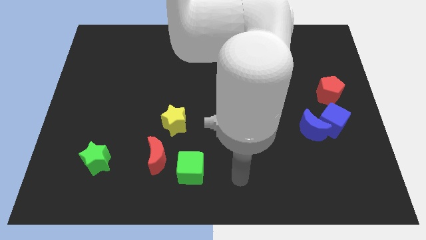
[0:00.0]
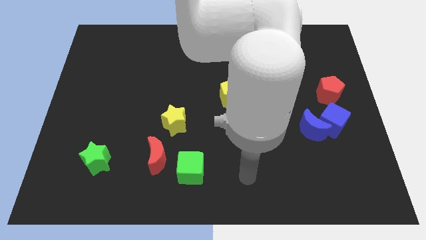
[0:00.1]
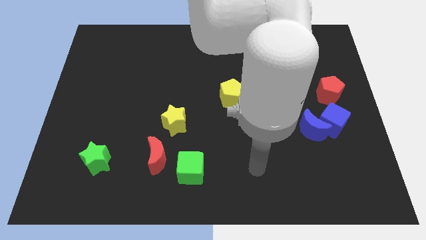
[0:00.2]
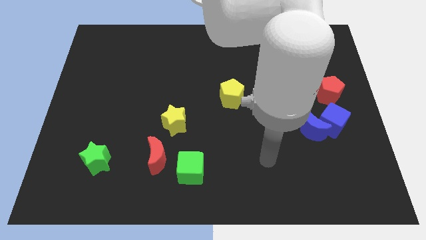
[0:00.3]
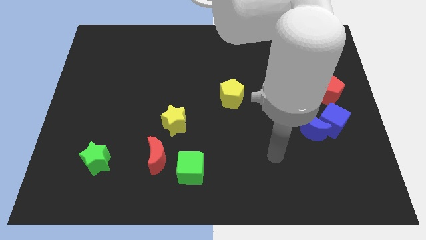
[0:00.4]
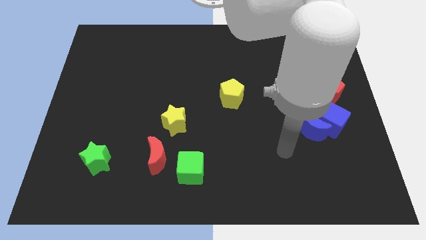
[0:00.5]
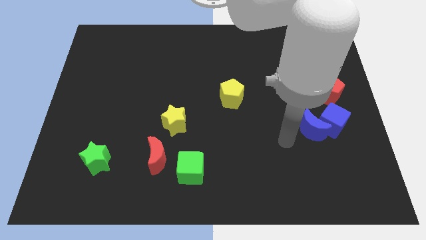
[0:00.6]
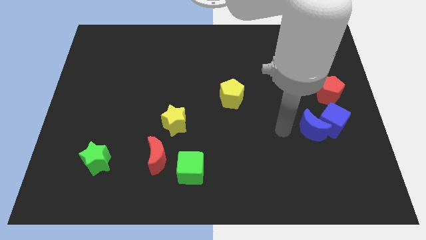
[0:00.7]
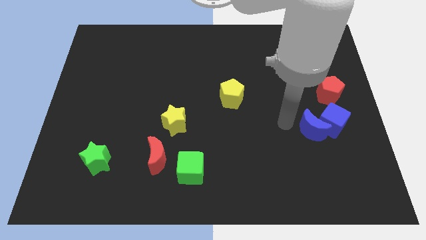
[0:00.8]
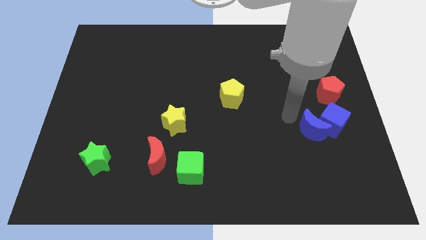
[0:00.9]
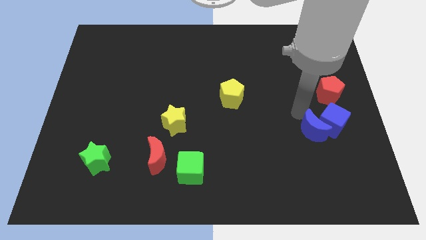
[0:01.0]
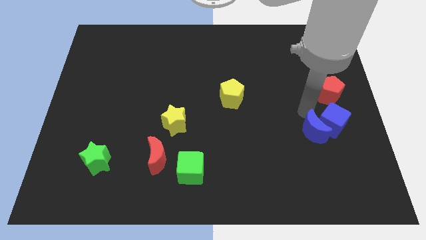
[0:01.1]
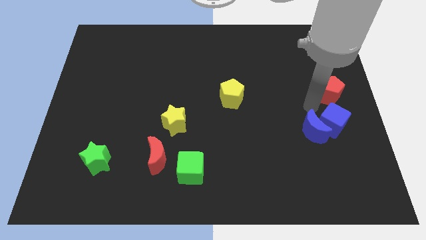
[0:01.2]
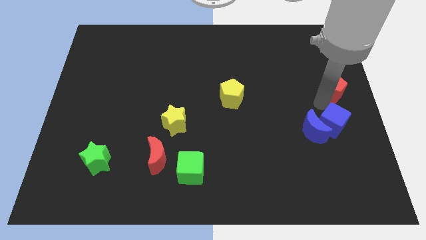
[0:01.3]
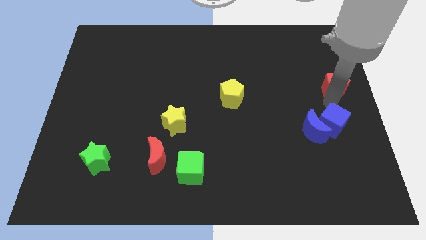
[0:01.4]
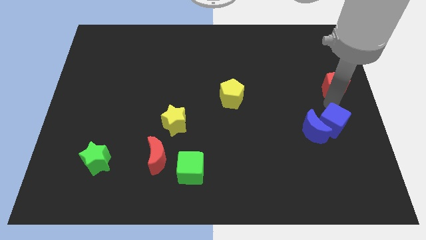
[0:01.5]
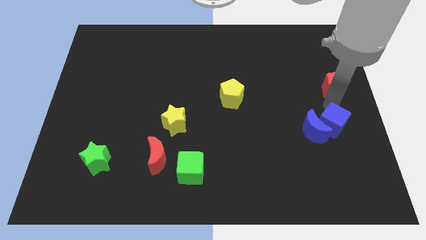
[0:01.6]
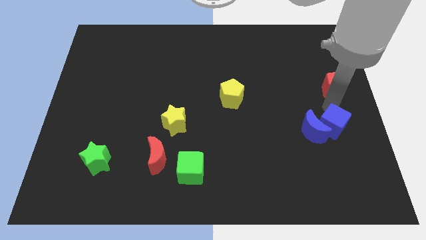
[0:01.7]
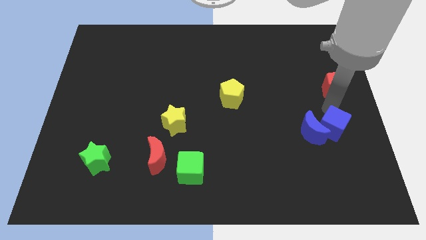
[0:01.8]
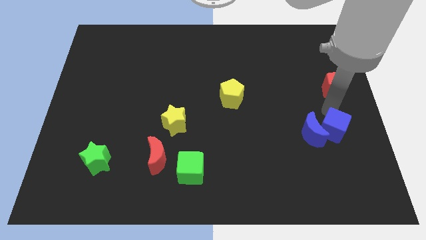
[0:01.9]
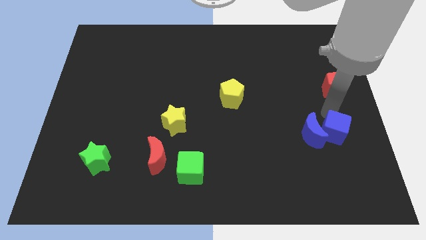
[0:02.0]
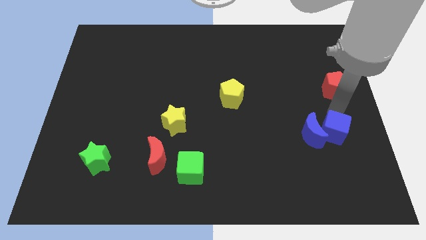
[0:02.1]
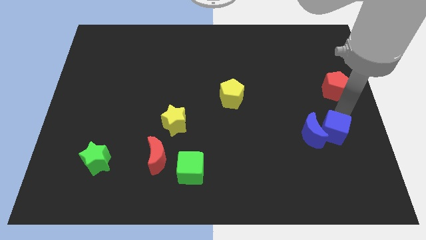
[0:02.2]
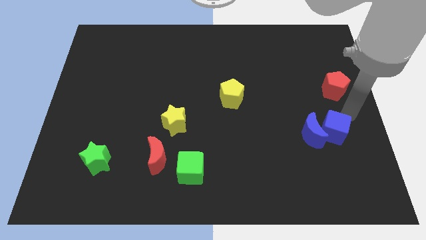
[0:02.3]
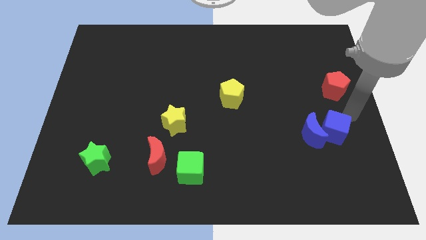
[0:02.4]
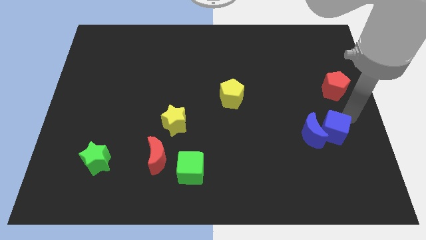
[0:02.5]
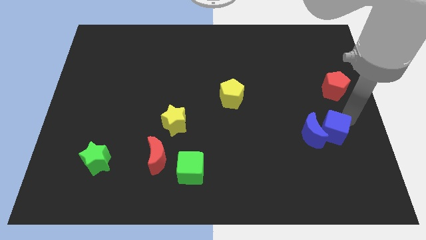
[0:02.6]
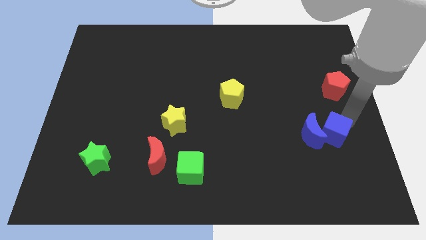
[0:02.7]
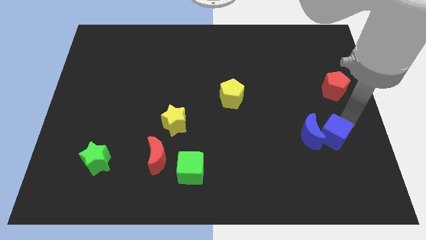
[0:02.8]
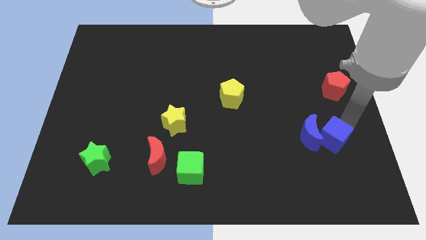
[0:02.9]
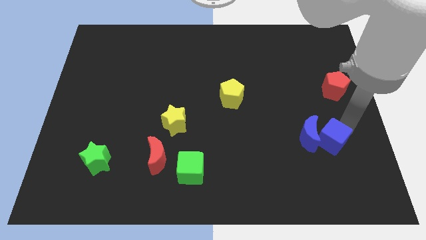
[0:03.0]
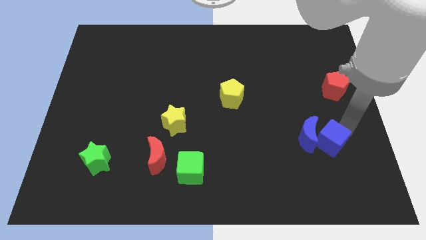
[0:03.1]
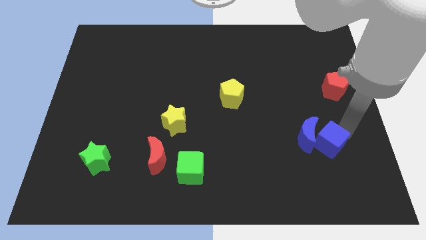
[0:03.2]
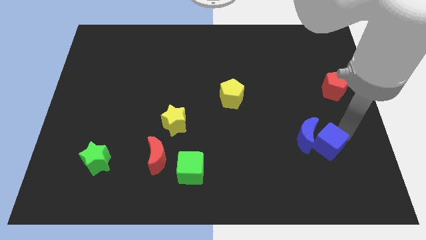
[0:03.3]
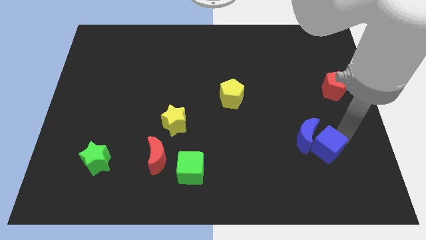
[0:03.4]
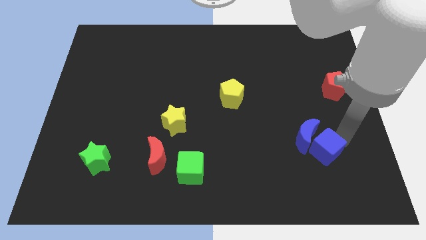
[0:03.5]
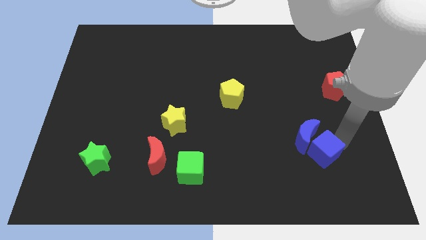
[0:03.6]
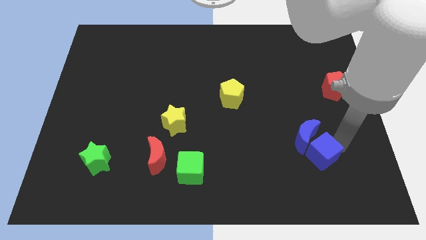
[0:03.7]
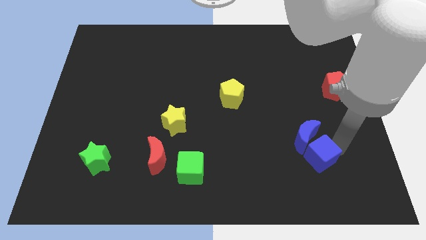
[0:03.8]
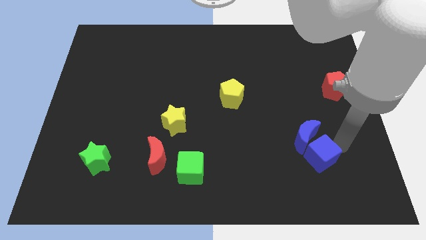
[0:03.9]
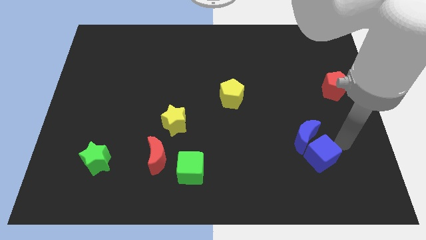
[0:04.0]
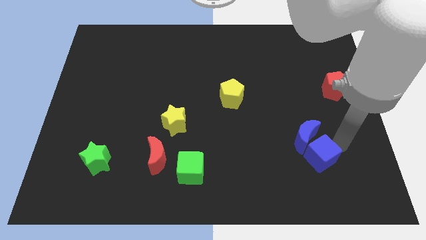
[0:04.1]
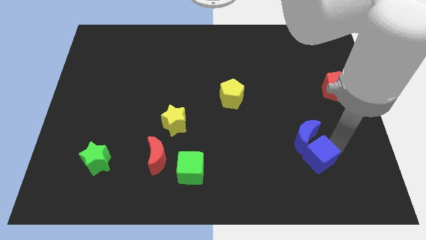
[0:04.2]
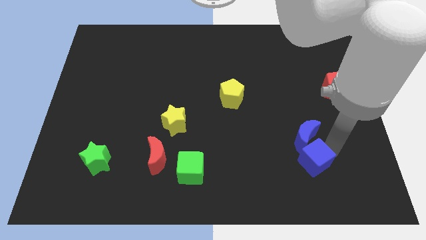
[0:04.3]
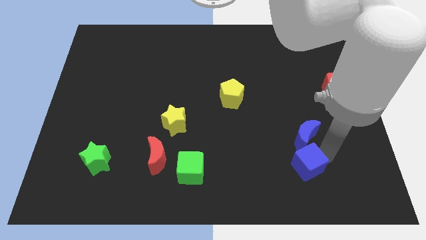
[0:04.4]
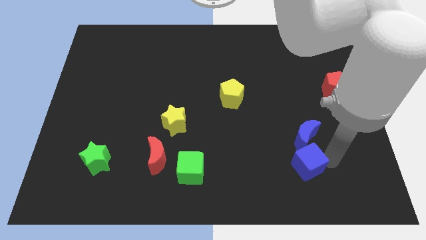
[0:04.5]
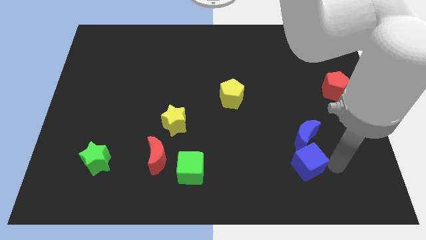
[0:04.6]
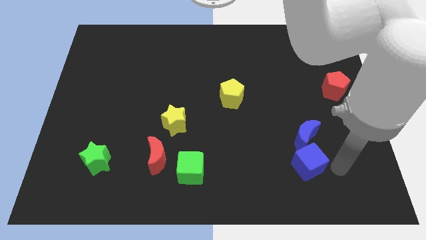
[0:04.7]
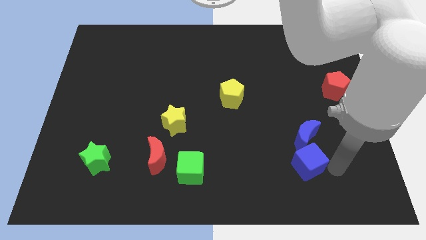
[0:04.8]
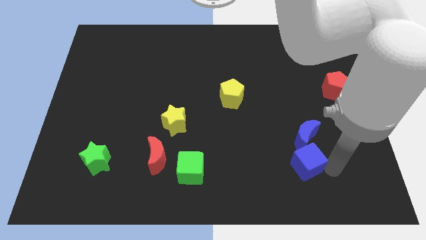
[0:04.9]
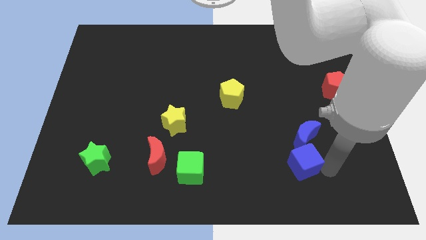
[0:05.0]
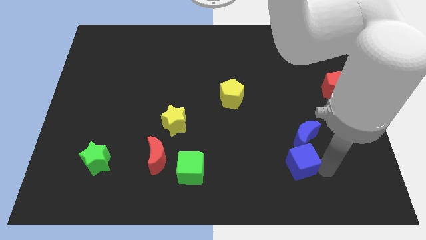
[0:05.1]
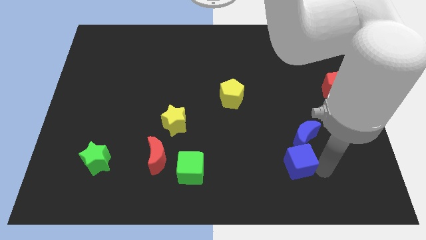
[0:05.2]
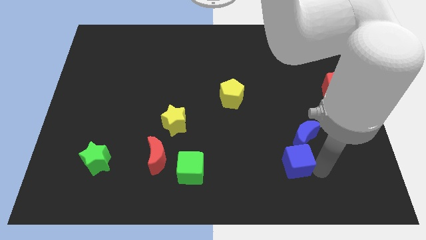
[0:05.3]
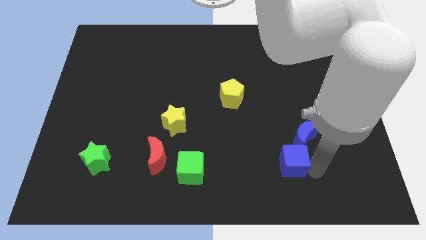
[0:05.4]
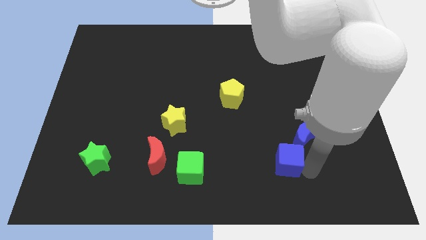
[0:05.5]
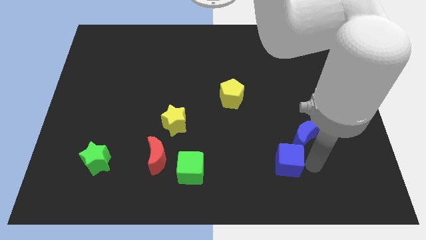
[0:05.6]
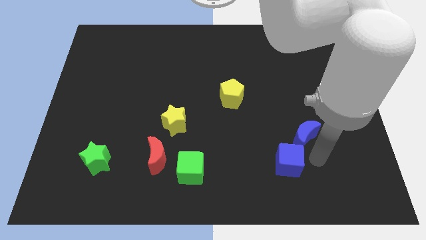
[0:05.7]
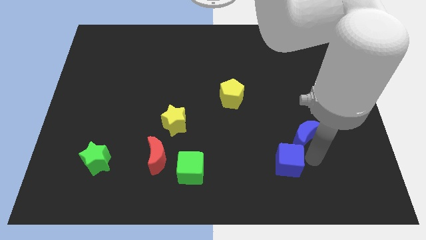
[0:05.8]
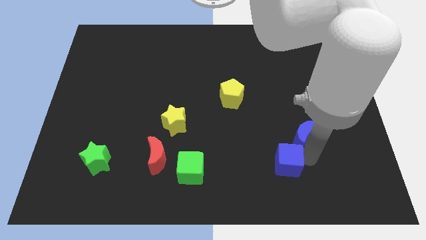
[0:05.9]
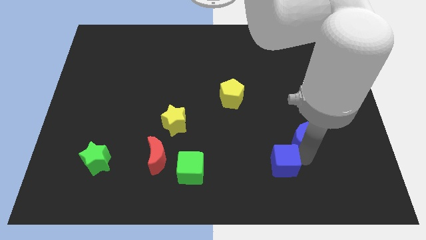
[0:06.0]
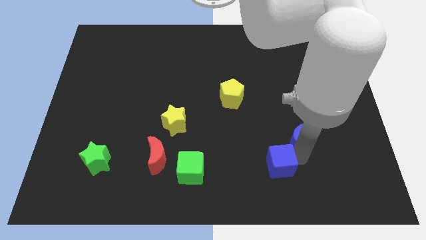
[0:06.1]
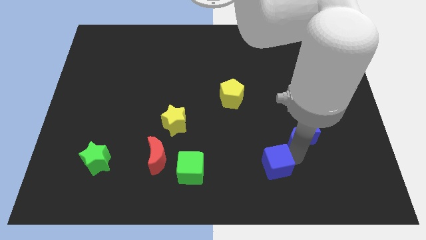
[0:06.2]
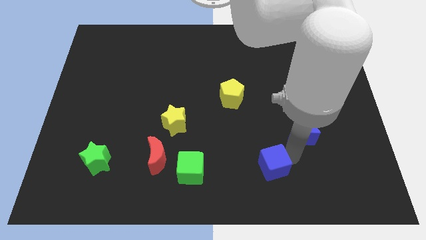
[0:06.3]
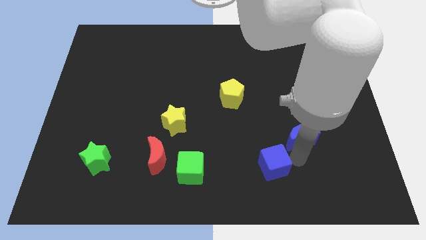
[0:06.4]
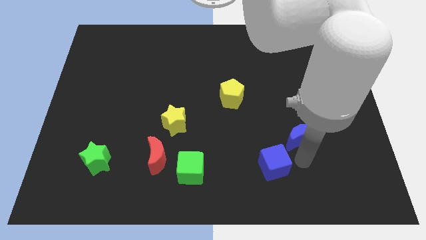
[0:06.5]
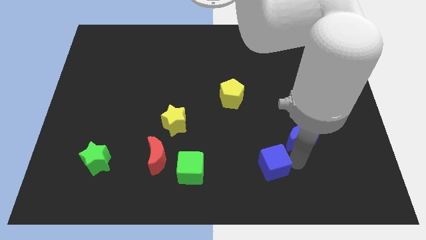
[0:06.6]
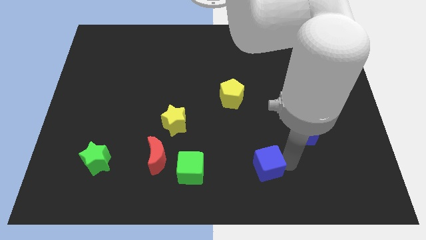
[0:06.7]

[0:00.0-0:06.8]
put the blue cube to the right side of the green cube

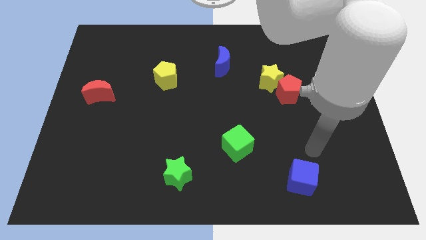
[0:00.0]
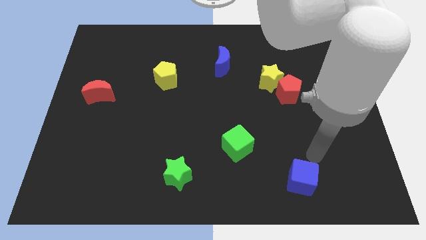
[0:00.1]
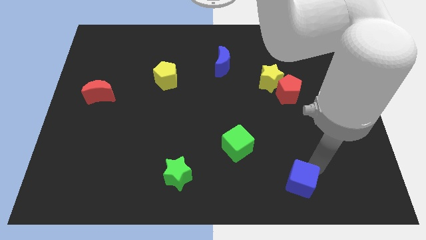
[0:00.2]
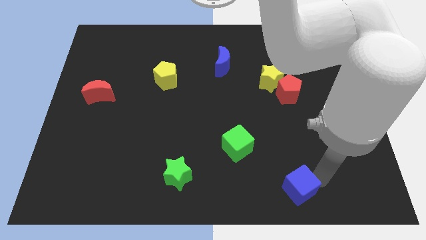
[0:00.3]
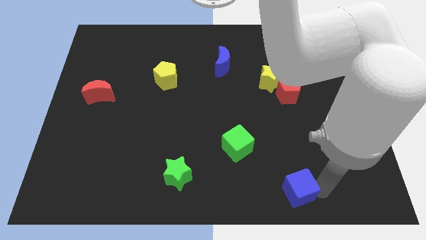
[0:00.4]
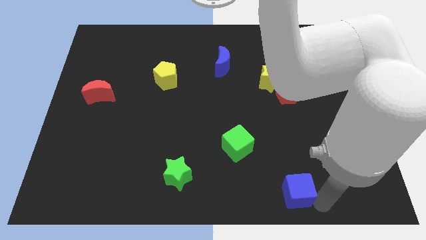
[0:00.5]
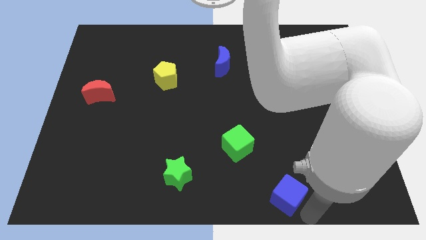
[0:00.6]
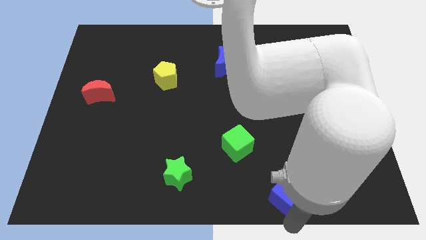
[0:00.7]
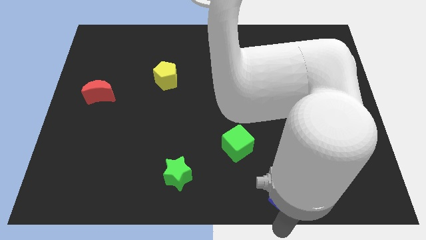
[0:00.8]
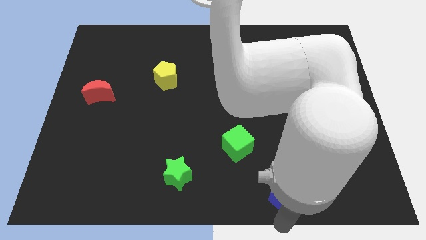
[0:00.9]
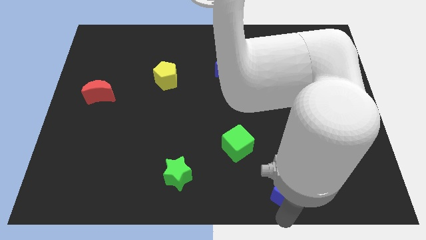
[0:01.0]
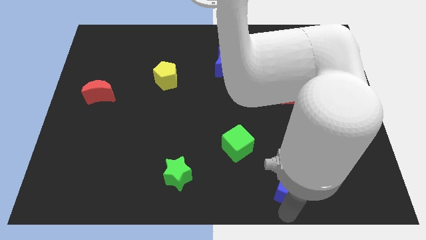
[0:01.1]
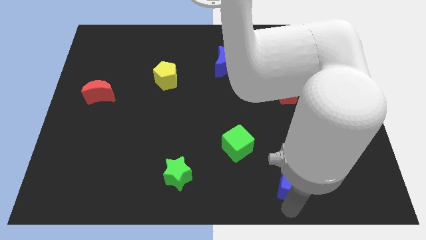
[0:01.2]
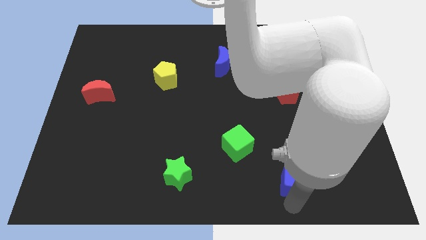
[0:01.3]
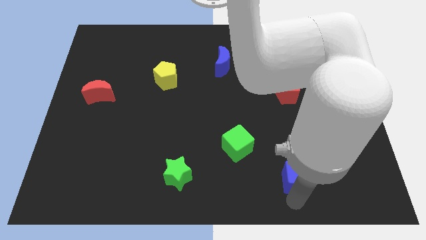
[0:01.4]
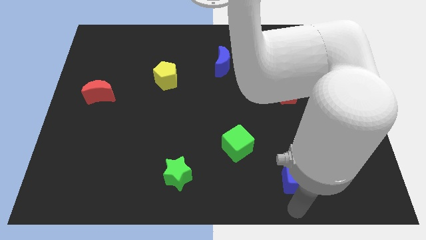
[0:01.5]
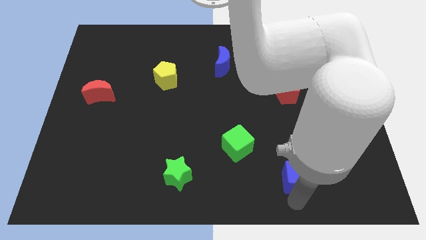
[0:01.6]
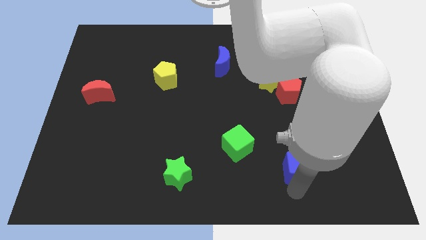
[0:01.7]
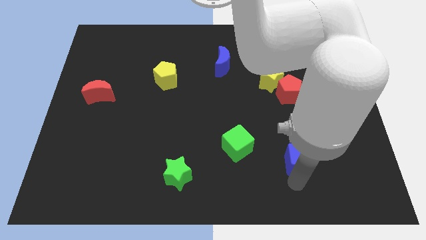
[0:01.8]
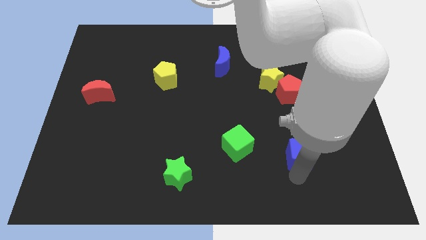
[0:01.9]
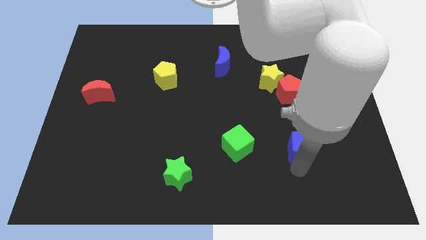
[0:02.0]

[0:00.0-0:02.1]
move the blue cube to the bottom of the red pentagon
